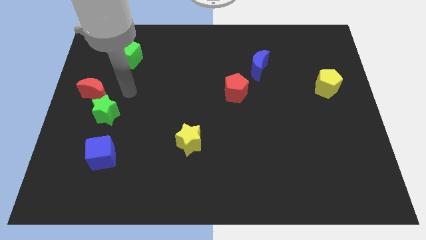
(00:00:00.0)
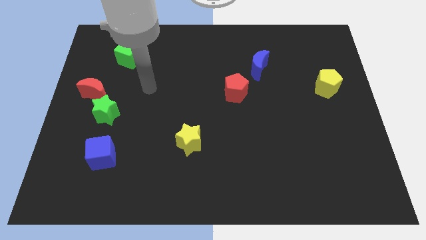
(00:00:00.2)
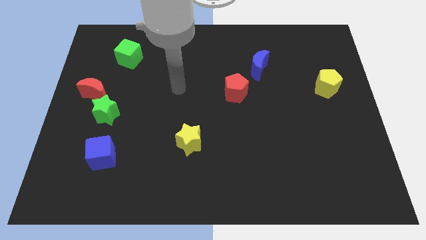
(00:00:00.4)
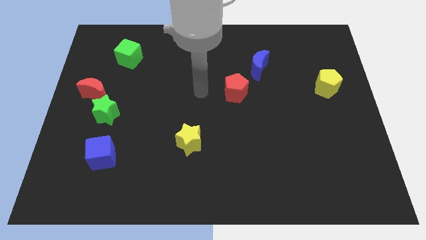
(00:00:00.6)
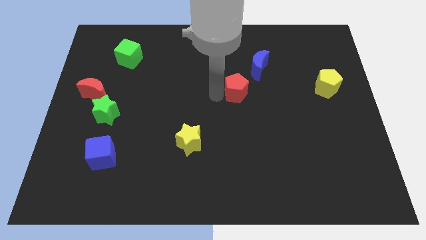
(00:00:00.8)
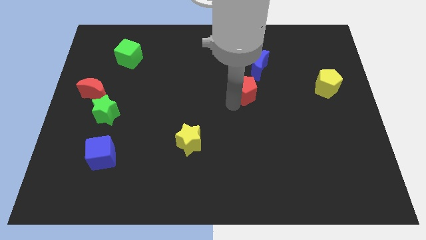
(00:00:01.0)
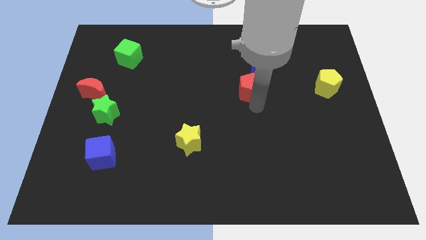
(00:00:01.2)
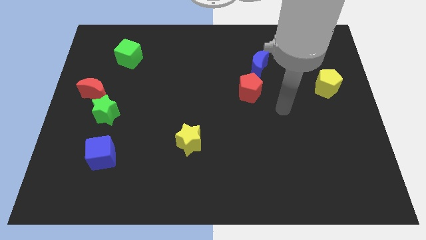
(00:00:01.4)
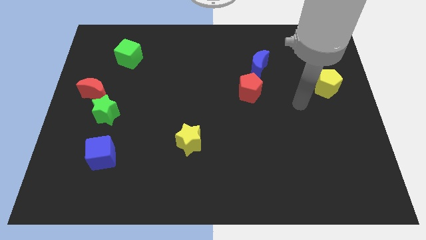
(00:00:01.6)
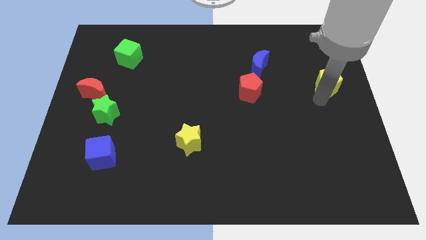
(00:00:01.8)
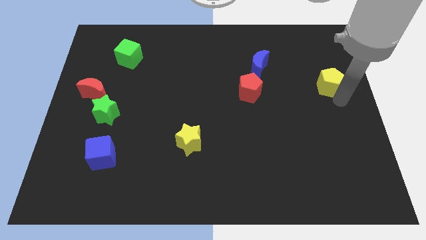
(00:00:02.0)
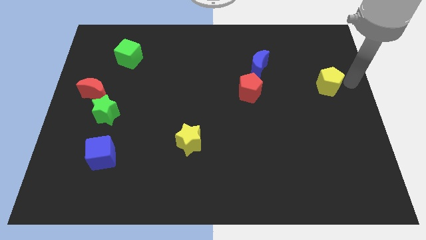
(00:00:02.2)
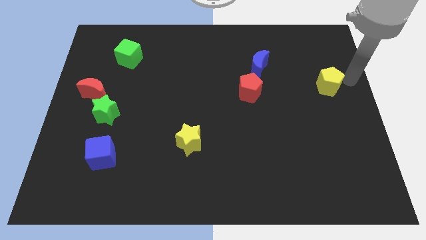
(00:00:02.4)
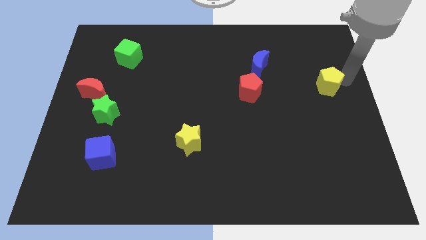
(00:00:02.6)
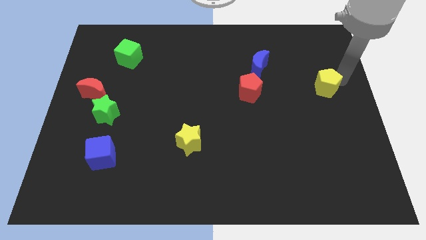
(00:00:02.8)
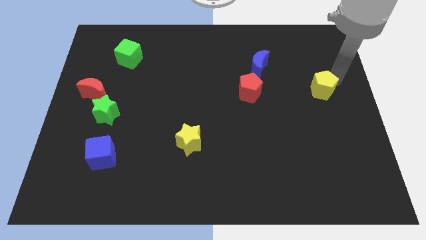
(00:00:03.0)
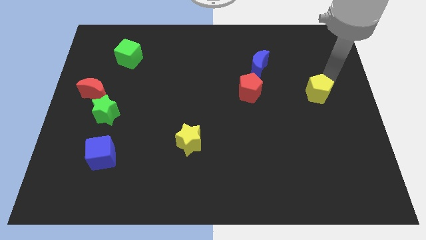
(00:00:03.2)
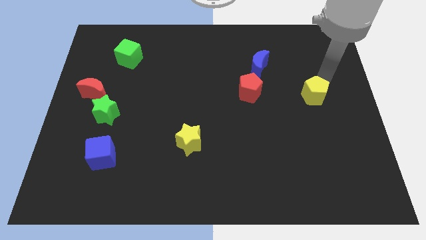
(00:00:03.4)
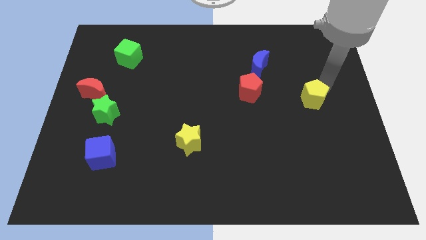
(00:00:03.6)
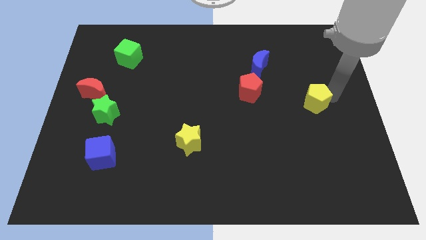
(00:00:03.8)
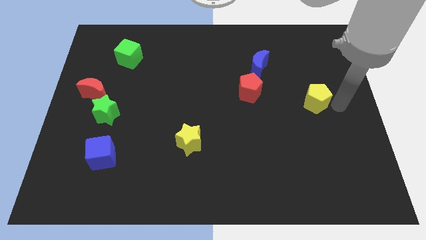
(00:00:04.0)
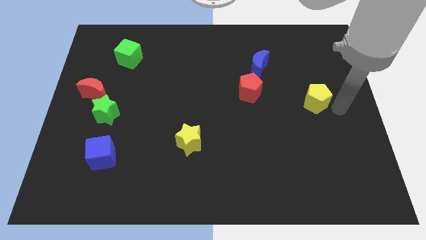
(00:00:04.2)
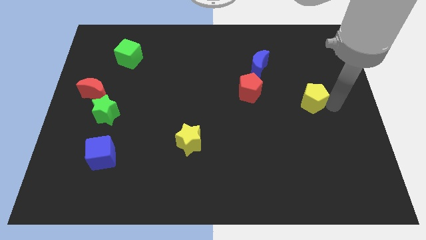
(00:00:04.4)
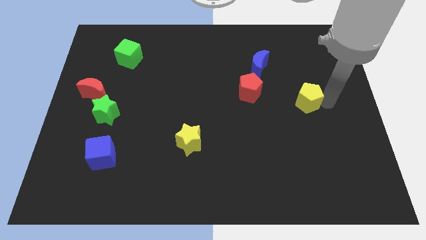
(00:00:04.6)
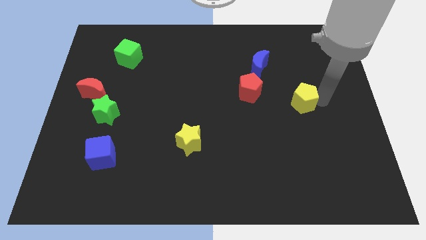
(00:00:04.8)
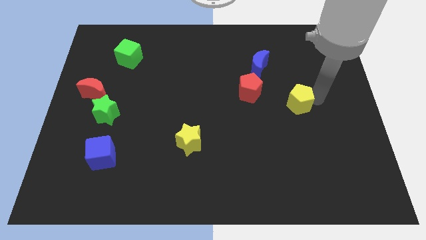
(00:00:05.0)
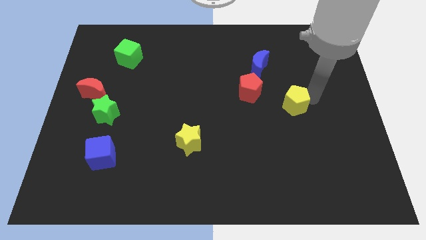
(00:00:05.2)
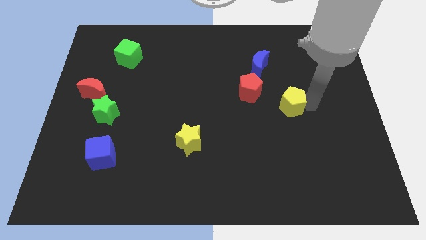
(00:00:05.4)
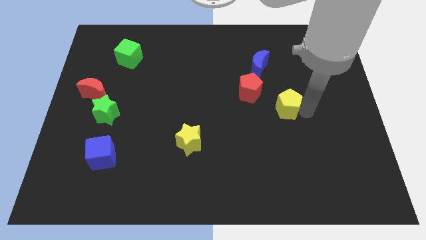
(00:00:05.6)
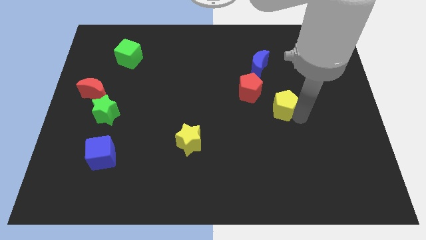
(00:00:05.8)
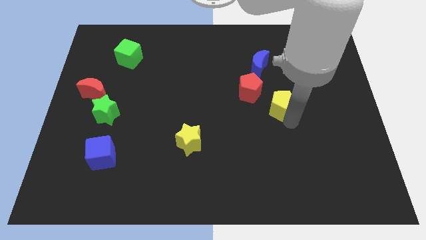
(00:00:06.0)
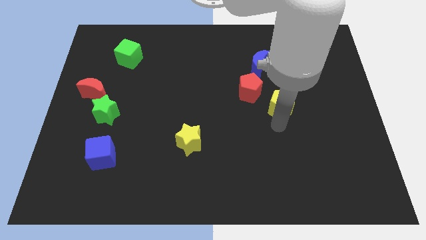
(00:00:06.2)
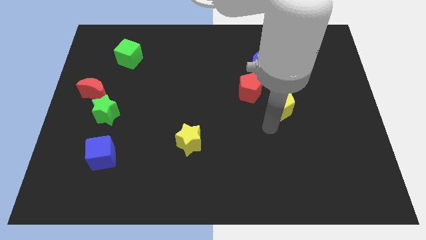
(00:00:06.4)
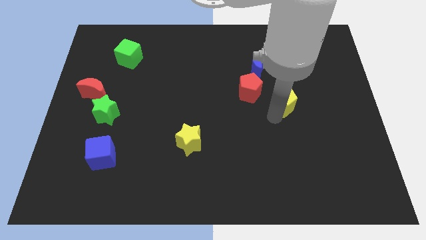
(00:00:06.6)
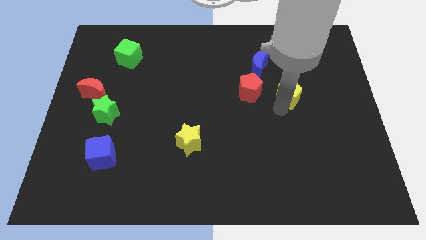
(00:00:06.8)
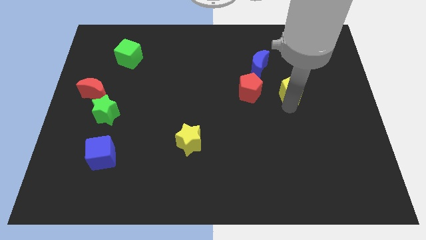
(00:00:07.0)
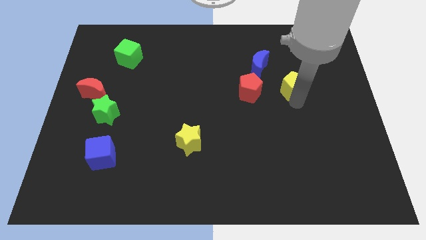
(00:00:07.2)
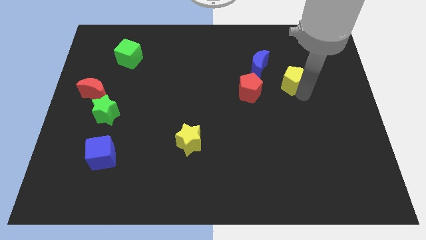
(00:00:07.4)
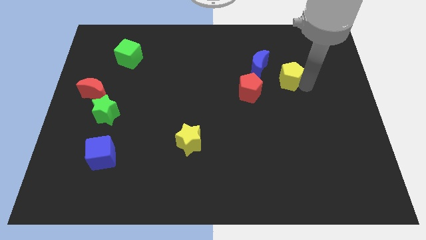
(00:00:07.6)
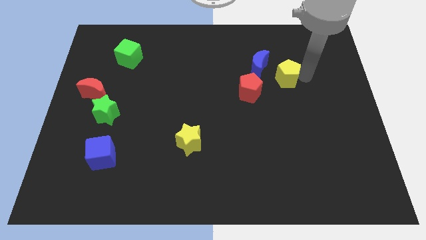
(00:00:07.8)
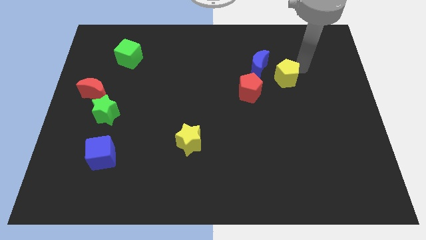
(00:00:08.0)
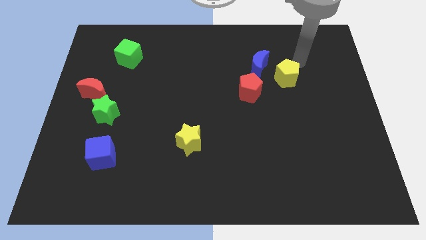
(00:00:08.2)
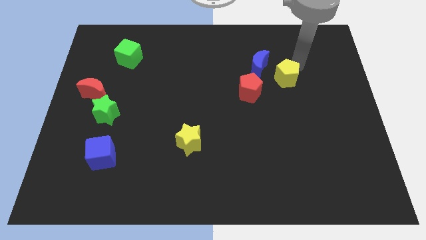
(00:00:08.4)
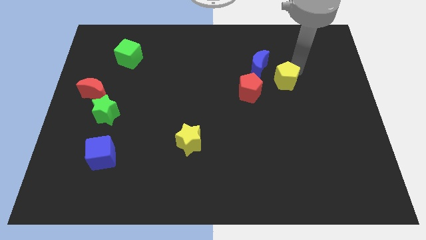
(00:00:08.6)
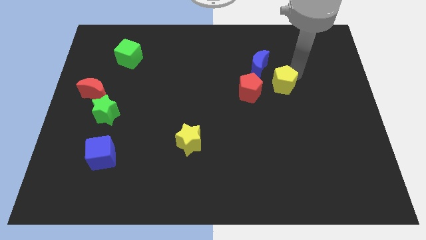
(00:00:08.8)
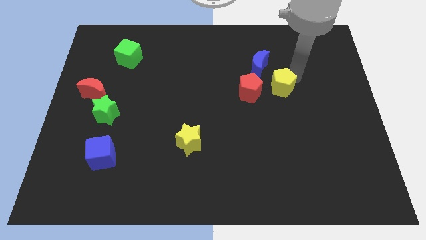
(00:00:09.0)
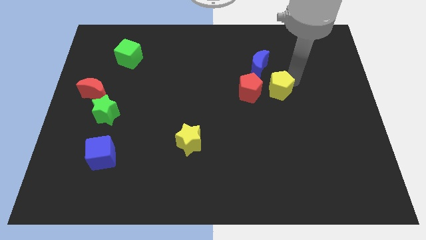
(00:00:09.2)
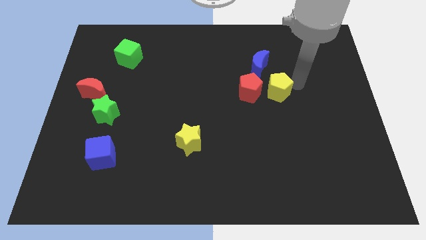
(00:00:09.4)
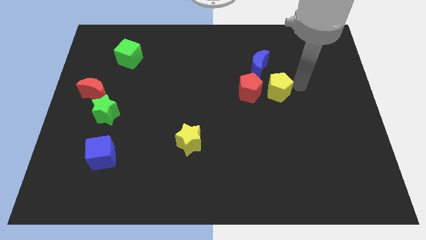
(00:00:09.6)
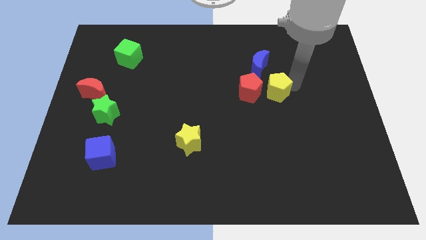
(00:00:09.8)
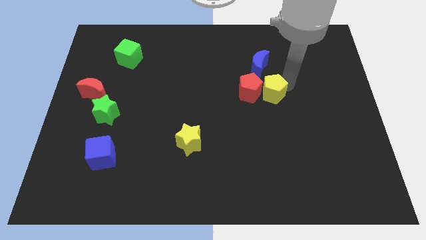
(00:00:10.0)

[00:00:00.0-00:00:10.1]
put the yellow pentagon towards the red pentagon

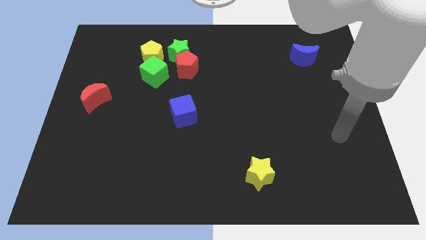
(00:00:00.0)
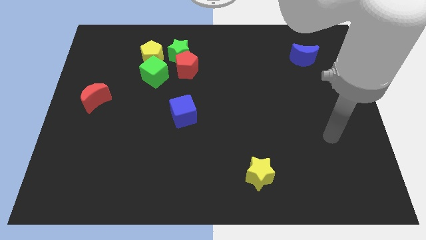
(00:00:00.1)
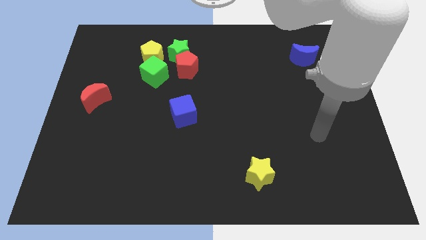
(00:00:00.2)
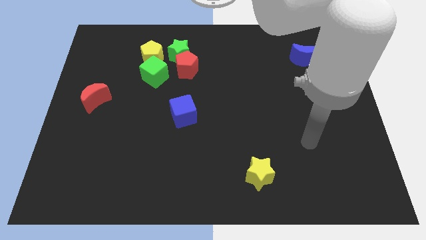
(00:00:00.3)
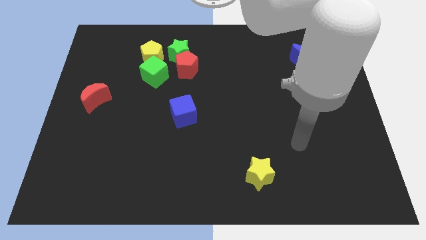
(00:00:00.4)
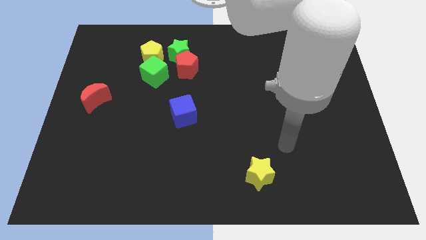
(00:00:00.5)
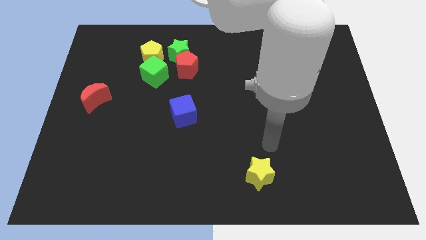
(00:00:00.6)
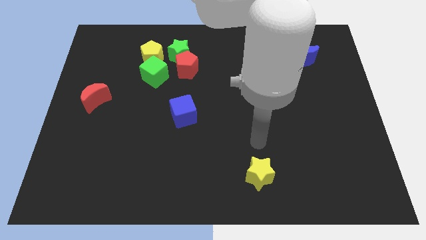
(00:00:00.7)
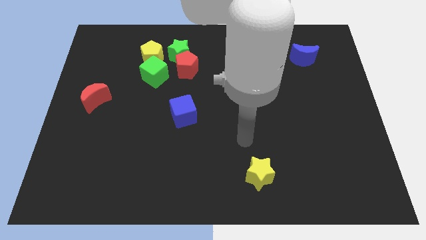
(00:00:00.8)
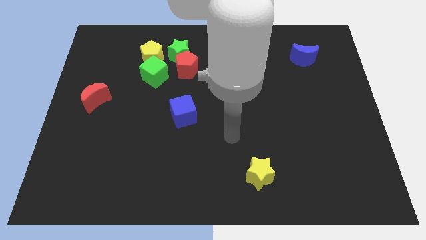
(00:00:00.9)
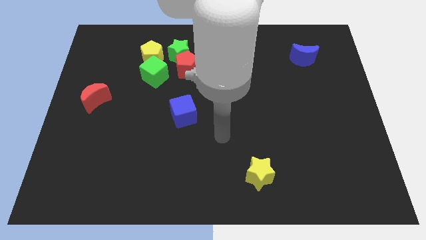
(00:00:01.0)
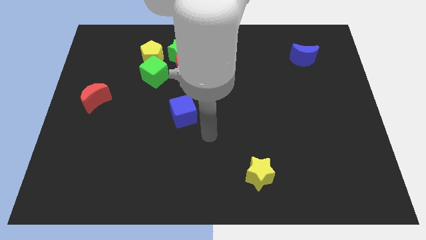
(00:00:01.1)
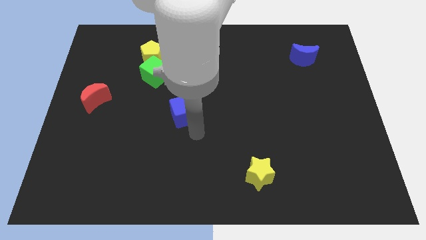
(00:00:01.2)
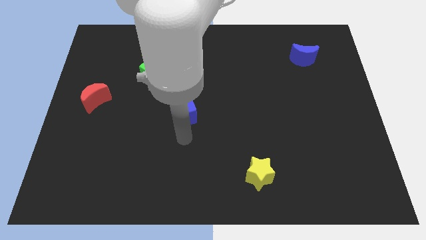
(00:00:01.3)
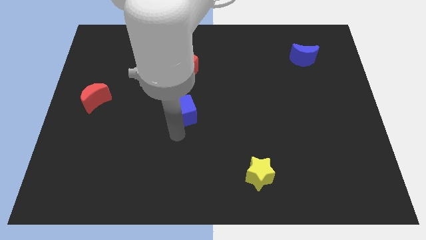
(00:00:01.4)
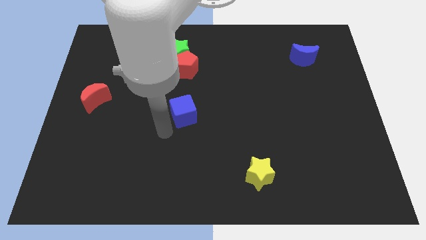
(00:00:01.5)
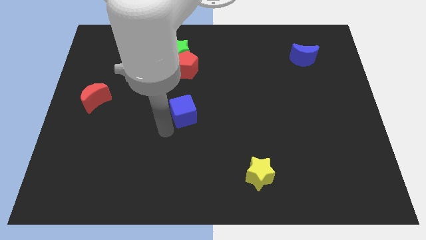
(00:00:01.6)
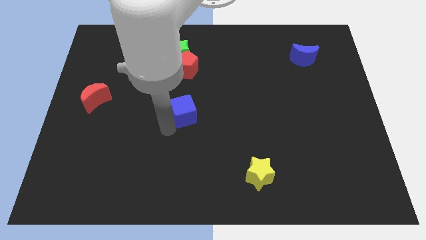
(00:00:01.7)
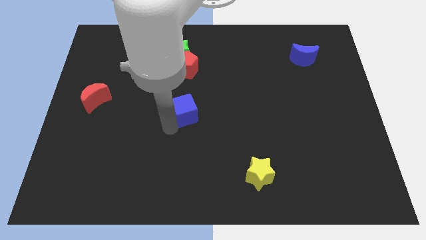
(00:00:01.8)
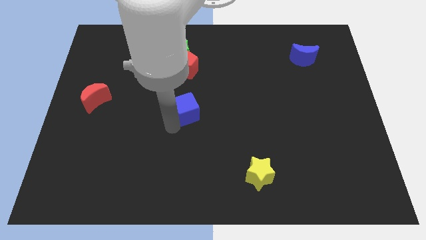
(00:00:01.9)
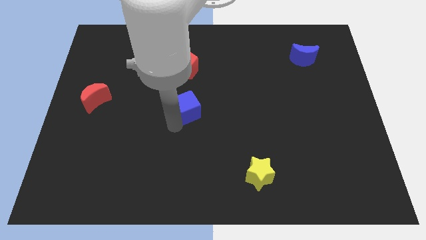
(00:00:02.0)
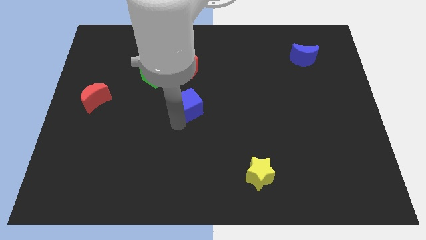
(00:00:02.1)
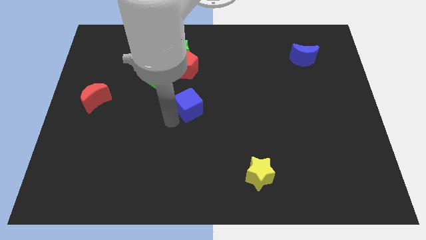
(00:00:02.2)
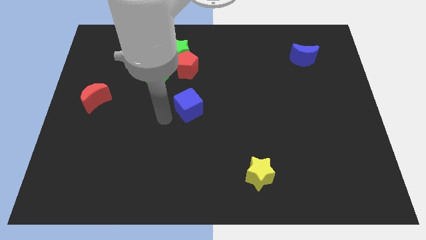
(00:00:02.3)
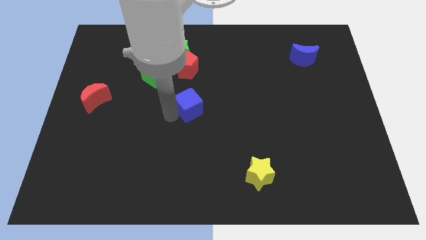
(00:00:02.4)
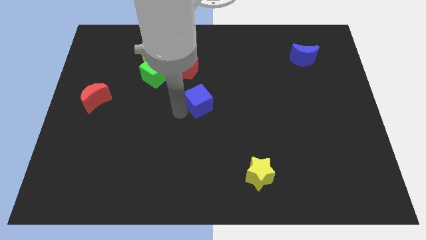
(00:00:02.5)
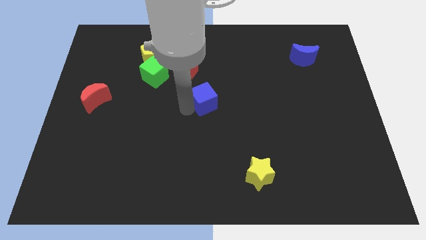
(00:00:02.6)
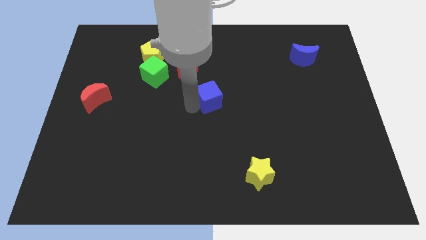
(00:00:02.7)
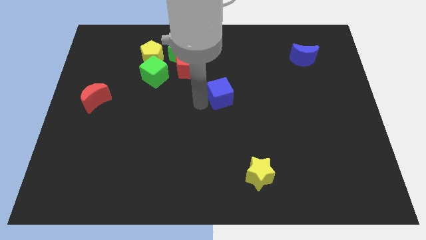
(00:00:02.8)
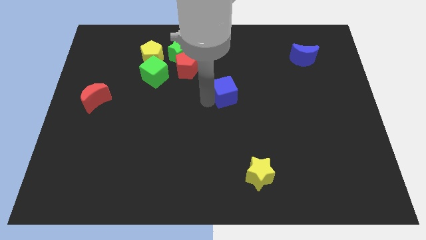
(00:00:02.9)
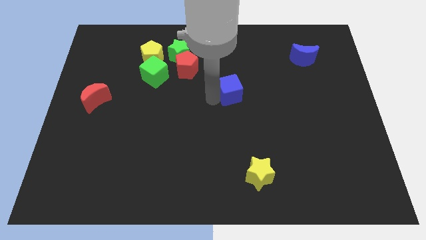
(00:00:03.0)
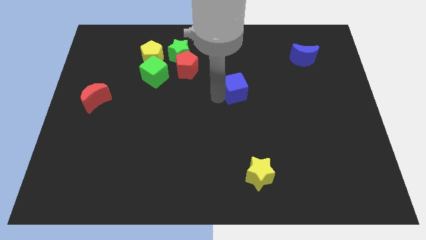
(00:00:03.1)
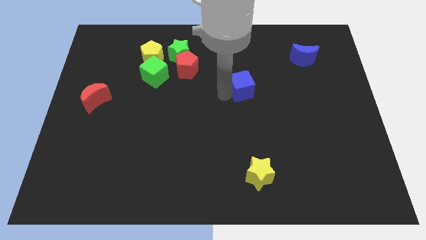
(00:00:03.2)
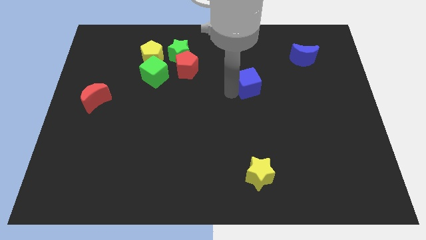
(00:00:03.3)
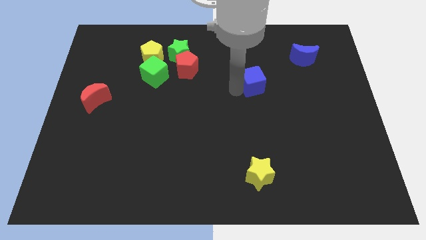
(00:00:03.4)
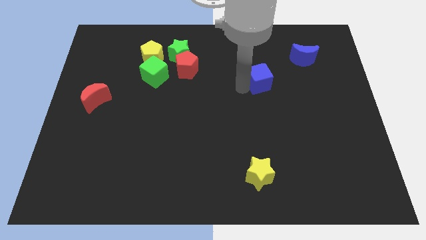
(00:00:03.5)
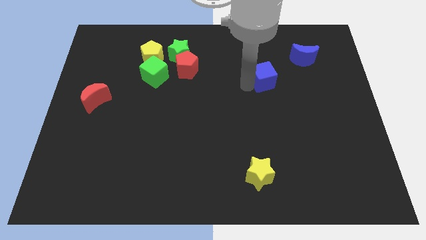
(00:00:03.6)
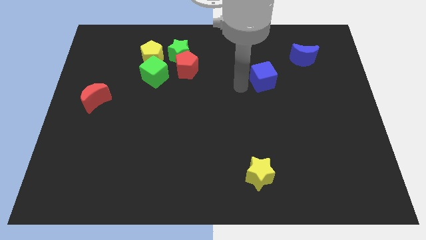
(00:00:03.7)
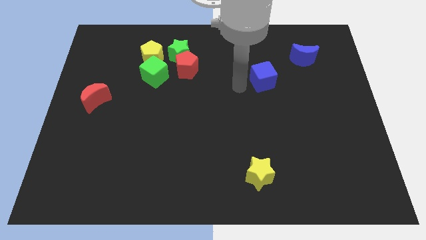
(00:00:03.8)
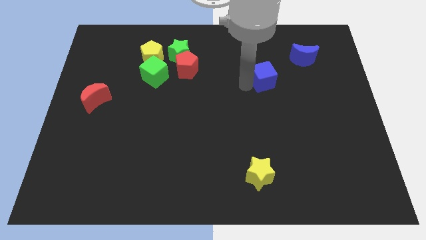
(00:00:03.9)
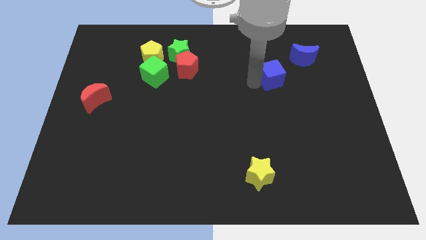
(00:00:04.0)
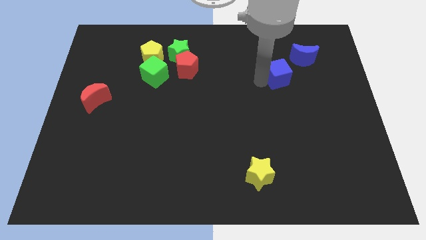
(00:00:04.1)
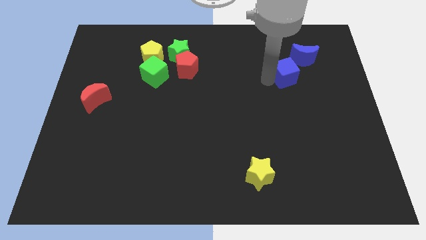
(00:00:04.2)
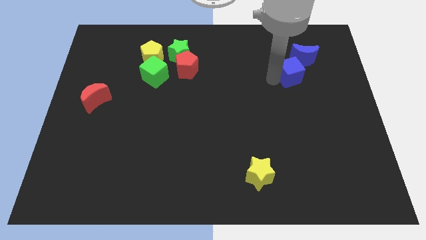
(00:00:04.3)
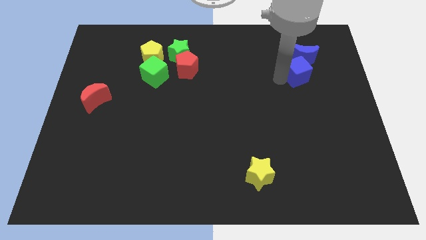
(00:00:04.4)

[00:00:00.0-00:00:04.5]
push the blue cube towards the blue moon
